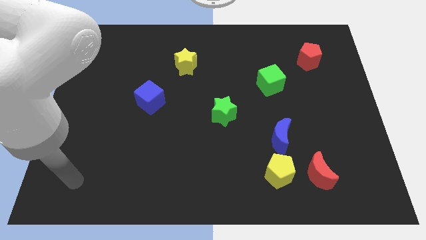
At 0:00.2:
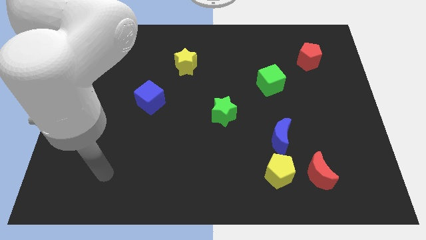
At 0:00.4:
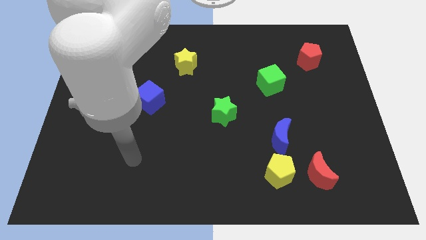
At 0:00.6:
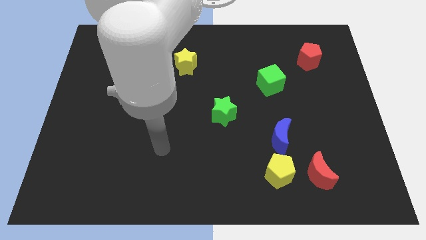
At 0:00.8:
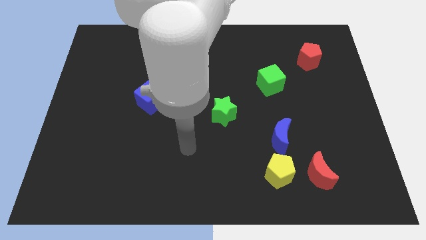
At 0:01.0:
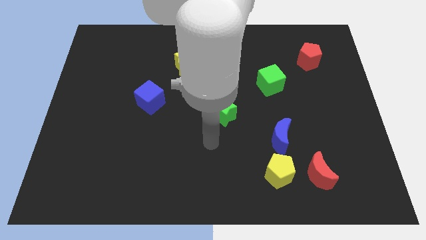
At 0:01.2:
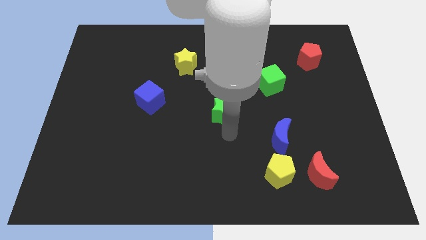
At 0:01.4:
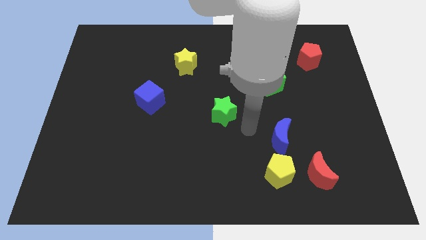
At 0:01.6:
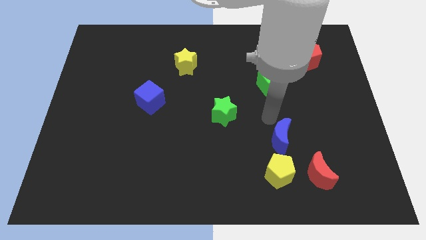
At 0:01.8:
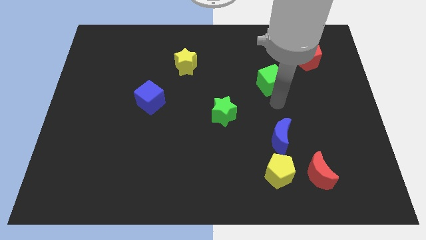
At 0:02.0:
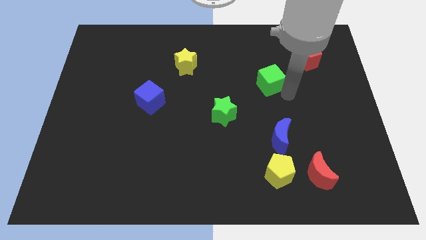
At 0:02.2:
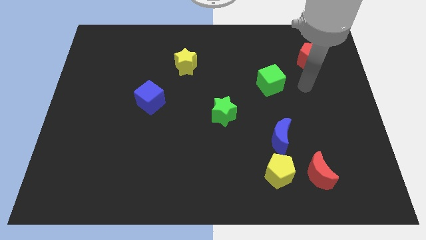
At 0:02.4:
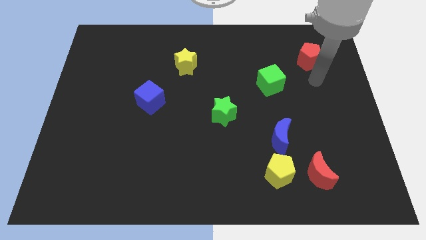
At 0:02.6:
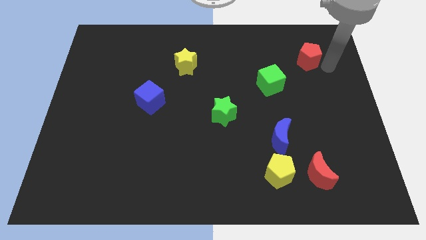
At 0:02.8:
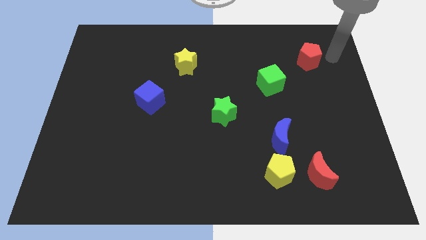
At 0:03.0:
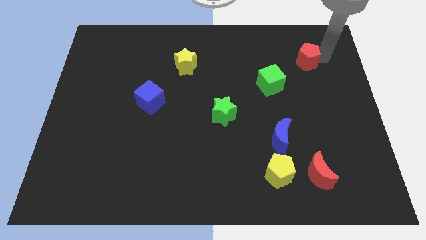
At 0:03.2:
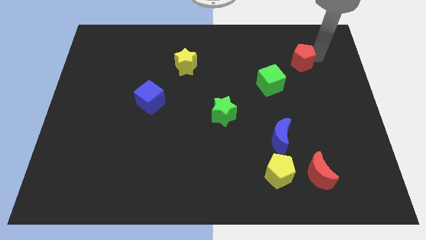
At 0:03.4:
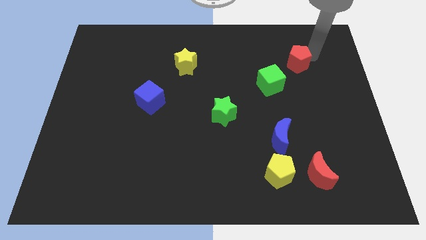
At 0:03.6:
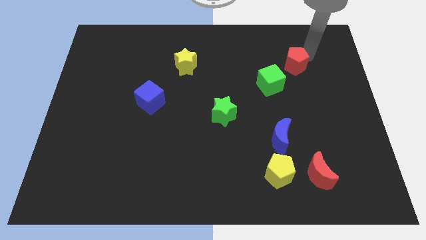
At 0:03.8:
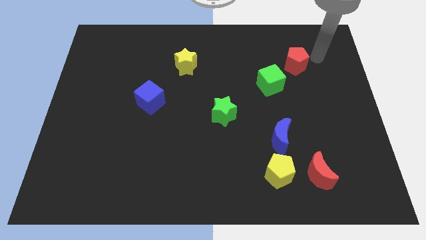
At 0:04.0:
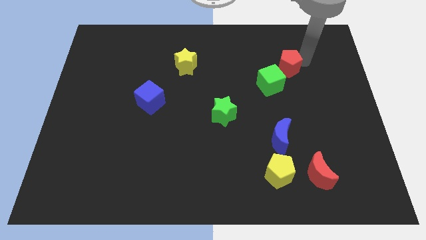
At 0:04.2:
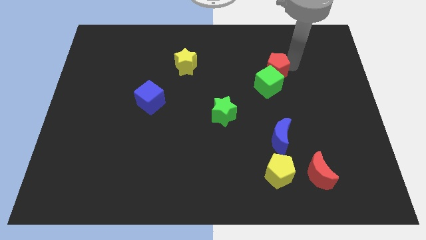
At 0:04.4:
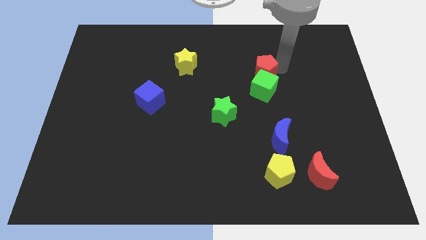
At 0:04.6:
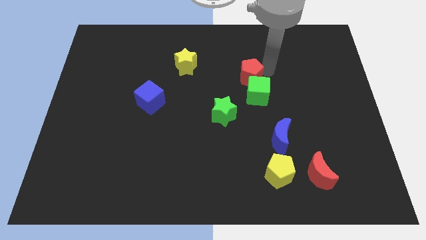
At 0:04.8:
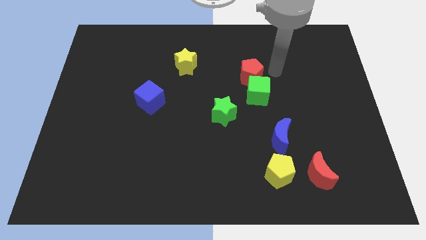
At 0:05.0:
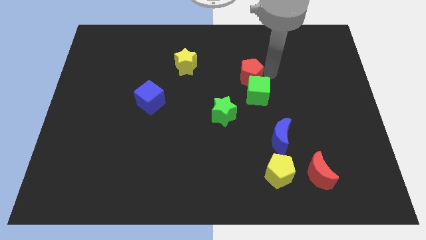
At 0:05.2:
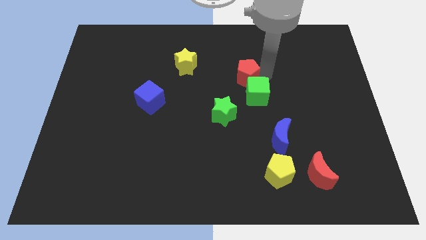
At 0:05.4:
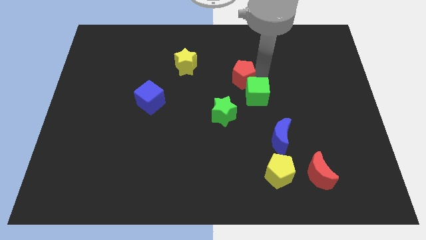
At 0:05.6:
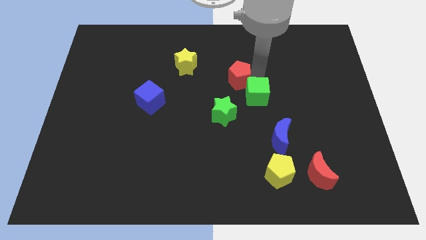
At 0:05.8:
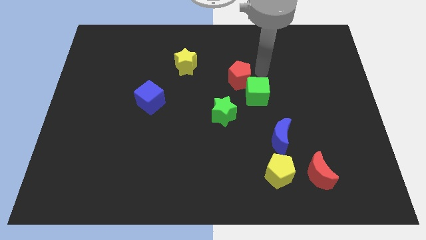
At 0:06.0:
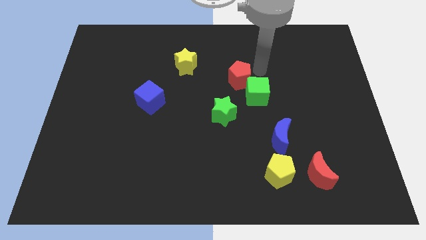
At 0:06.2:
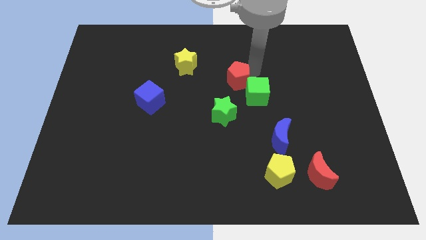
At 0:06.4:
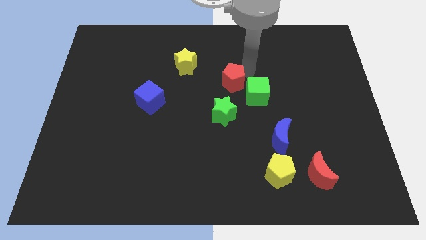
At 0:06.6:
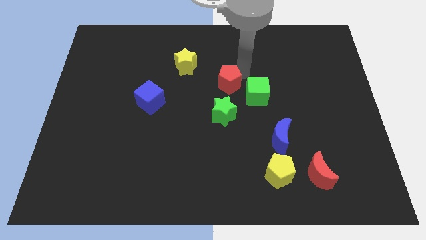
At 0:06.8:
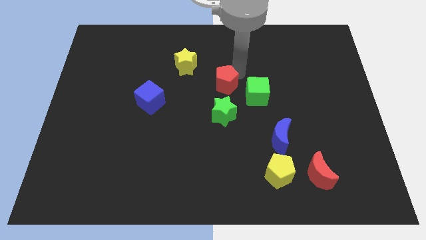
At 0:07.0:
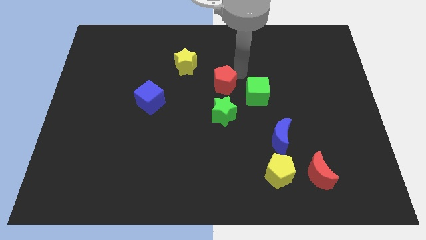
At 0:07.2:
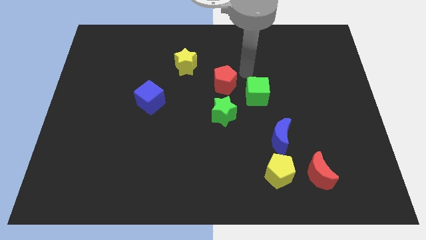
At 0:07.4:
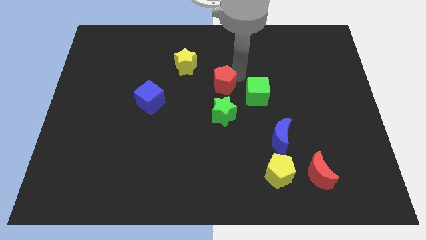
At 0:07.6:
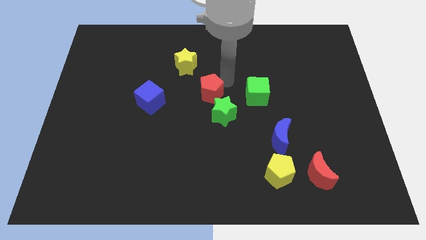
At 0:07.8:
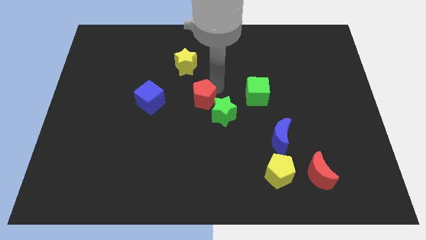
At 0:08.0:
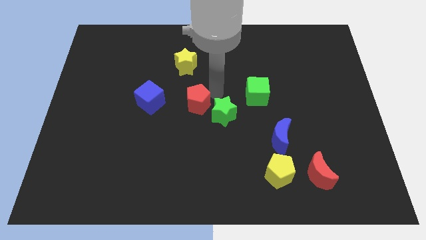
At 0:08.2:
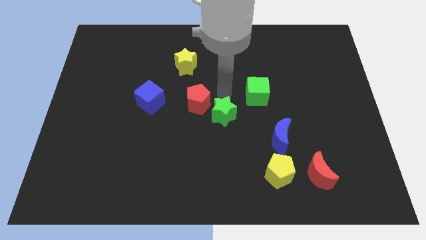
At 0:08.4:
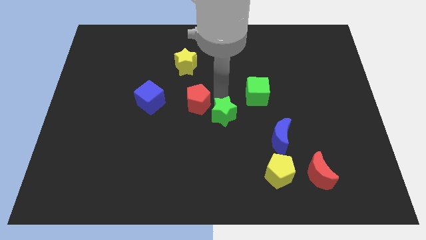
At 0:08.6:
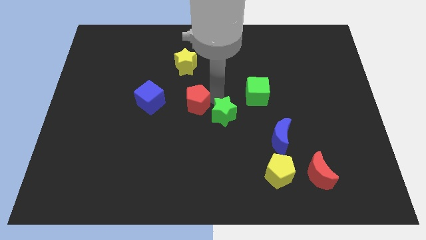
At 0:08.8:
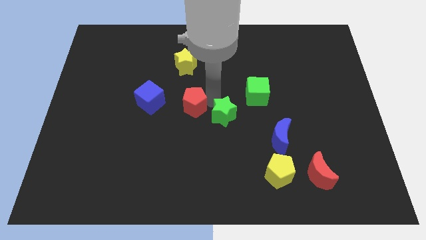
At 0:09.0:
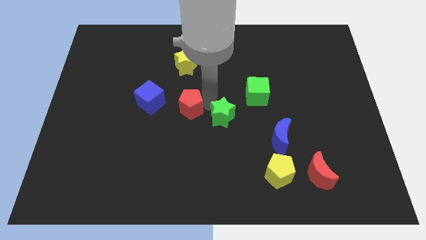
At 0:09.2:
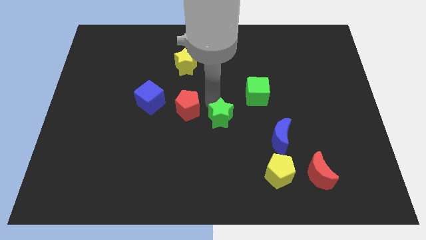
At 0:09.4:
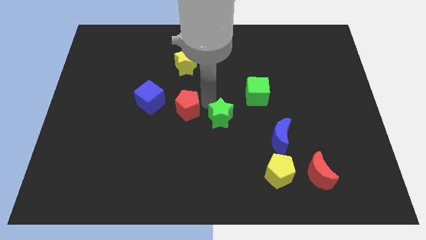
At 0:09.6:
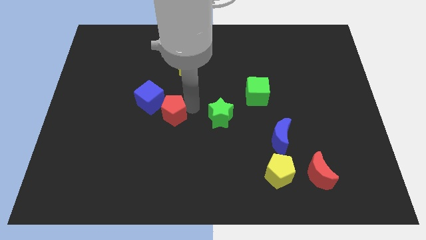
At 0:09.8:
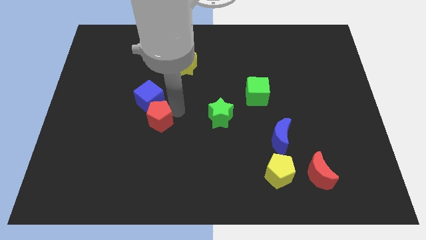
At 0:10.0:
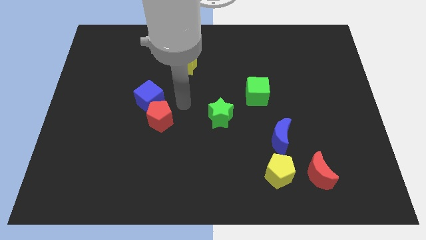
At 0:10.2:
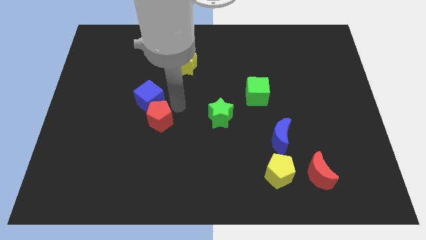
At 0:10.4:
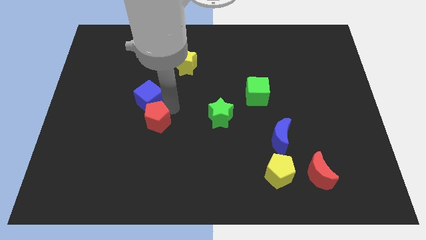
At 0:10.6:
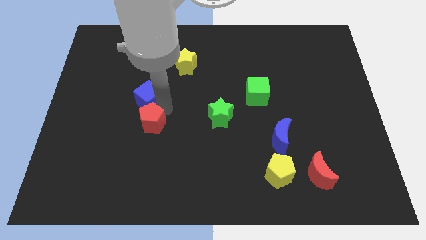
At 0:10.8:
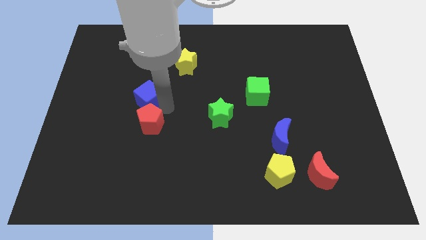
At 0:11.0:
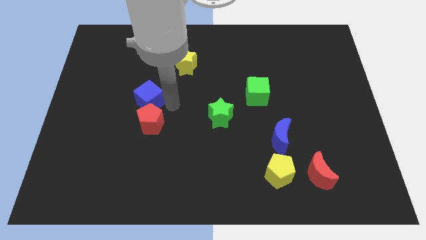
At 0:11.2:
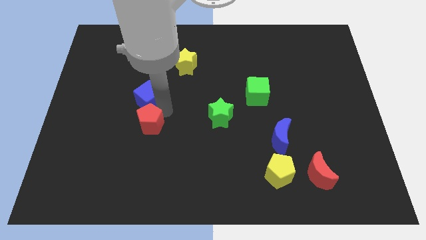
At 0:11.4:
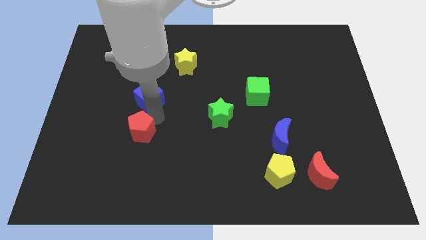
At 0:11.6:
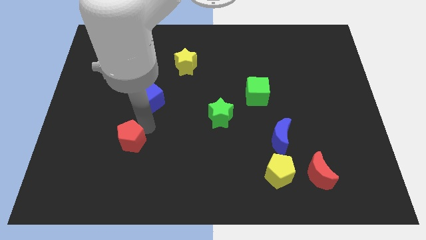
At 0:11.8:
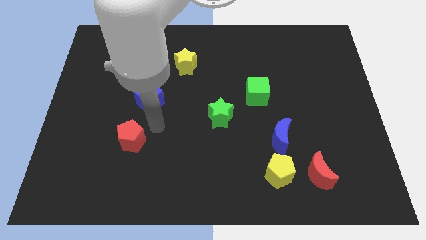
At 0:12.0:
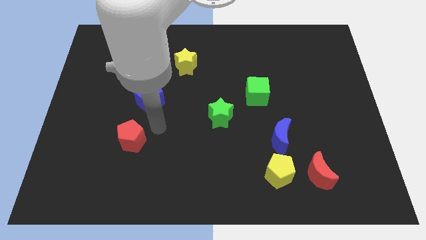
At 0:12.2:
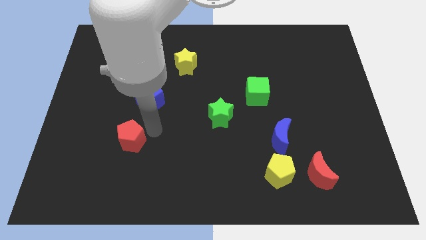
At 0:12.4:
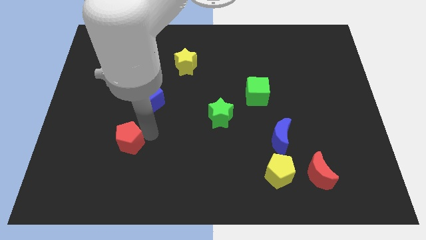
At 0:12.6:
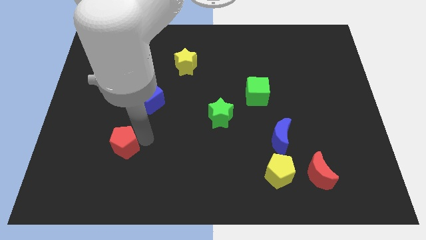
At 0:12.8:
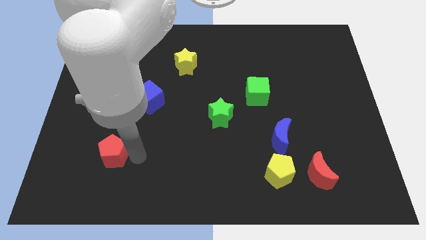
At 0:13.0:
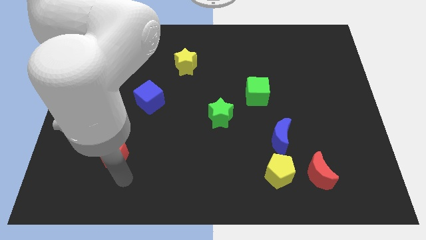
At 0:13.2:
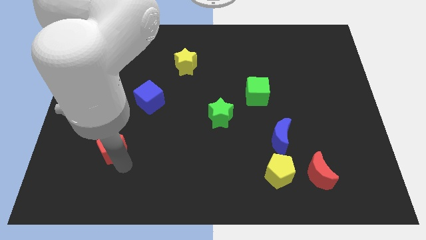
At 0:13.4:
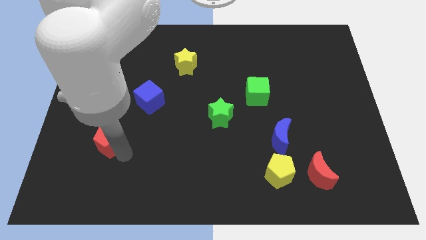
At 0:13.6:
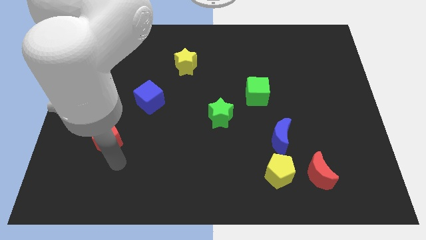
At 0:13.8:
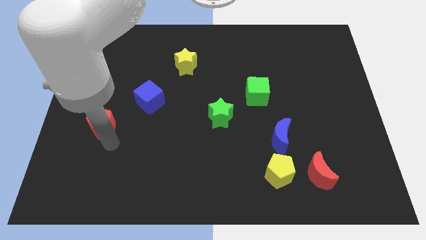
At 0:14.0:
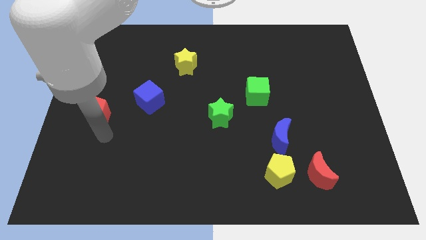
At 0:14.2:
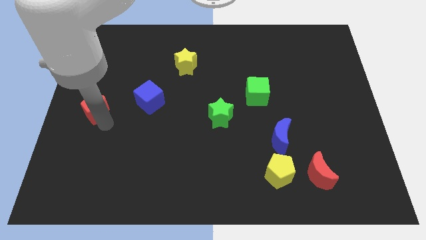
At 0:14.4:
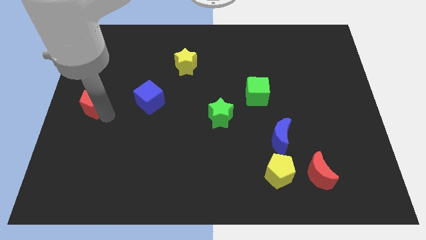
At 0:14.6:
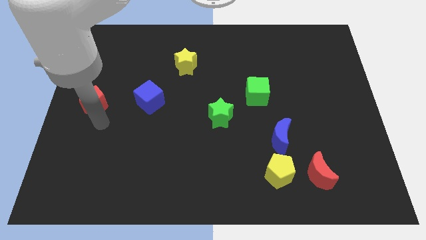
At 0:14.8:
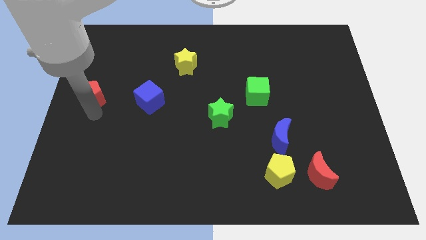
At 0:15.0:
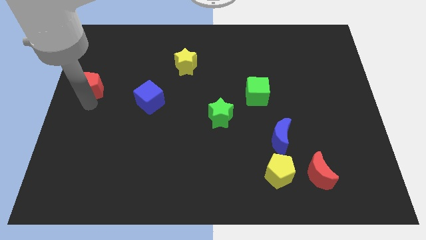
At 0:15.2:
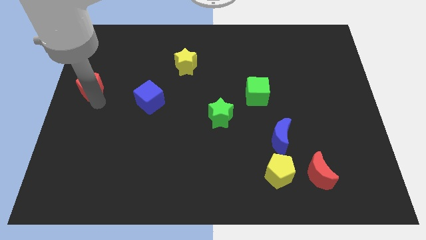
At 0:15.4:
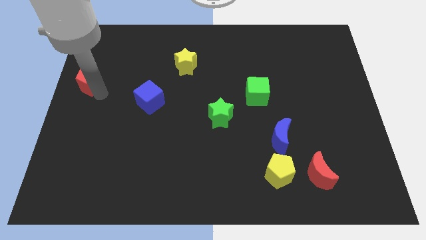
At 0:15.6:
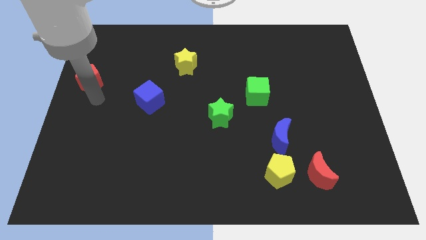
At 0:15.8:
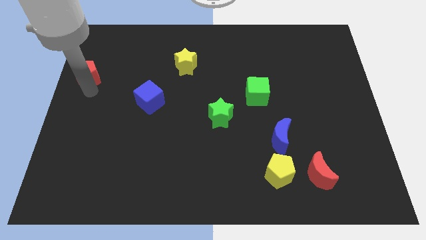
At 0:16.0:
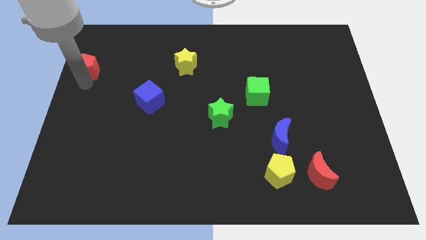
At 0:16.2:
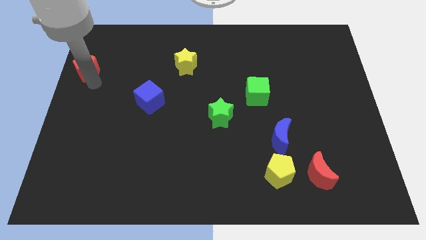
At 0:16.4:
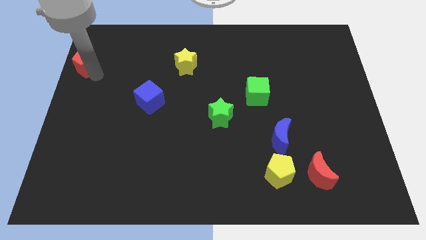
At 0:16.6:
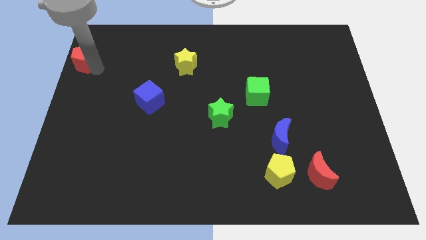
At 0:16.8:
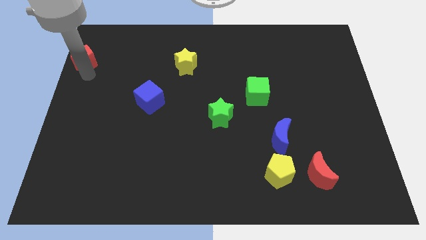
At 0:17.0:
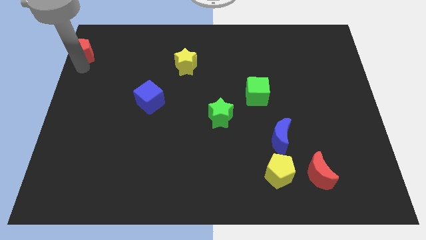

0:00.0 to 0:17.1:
put the red pentagon to the top left corner
